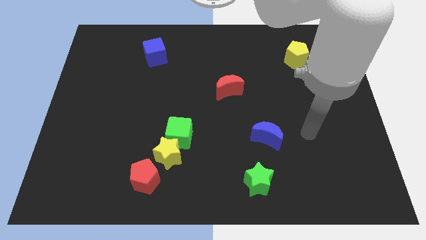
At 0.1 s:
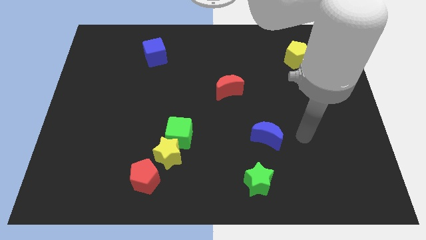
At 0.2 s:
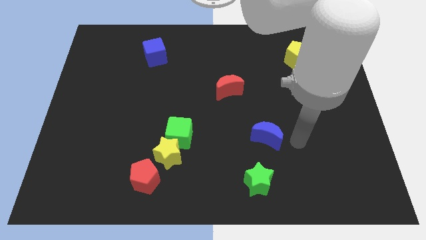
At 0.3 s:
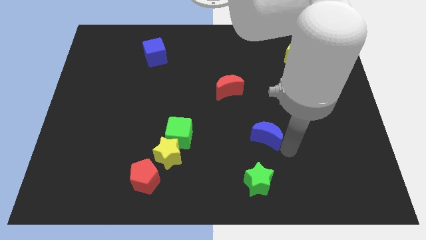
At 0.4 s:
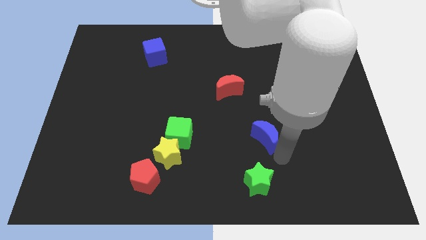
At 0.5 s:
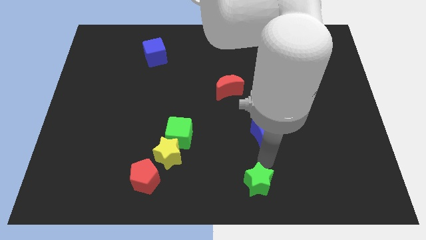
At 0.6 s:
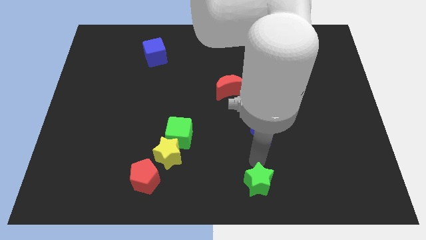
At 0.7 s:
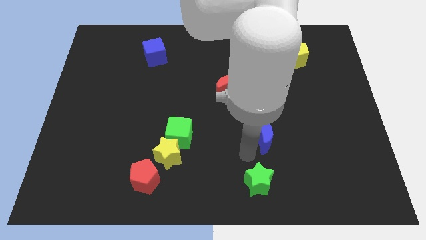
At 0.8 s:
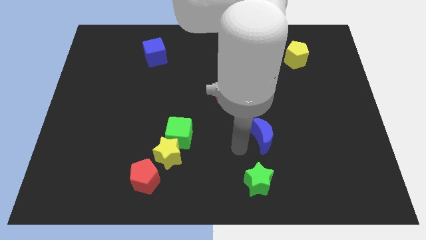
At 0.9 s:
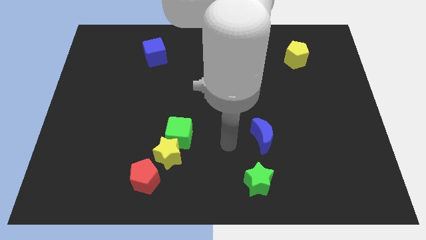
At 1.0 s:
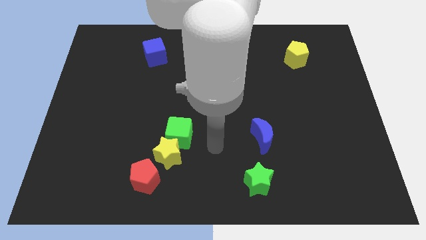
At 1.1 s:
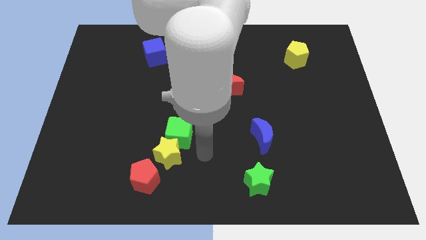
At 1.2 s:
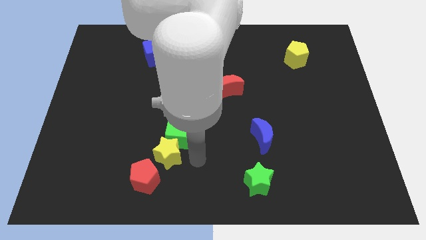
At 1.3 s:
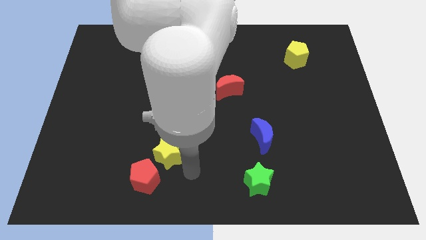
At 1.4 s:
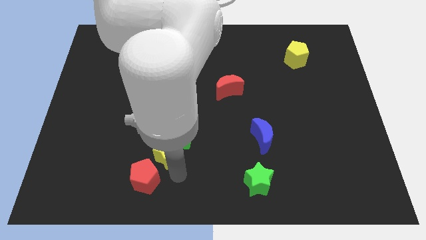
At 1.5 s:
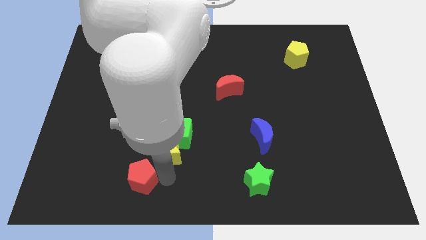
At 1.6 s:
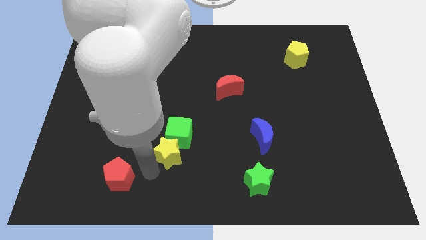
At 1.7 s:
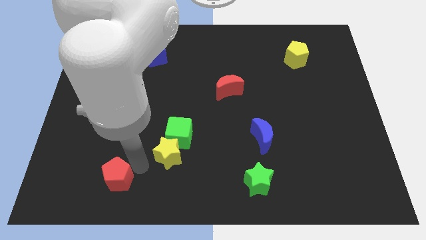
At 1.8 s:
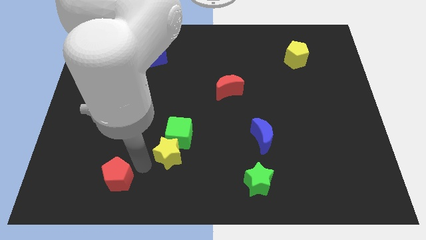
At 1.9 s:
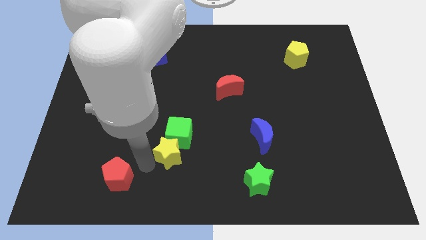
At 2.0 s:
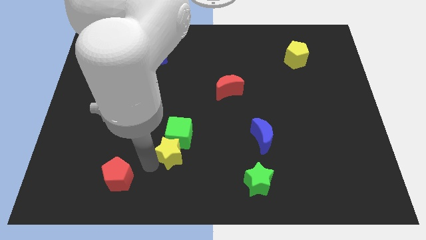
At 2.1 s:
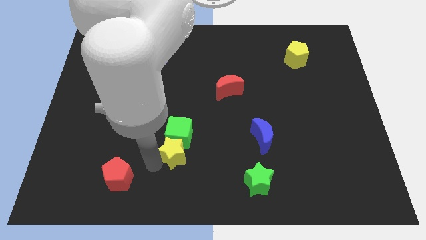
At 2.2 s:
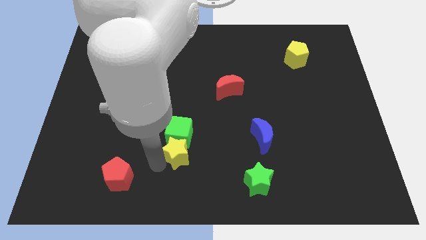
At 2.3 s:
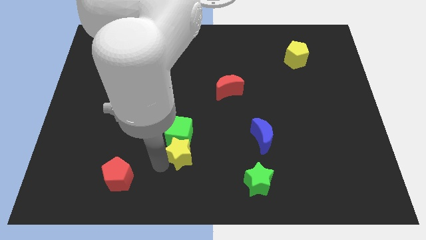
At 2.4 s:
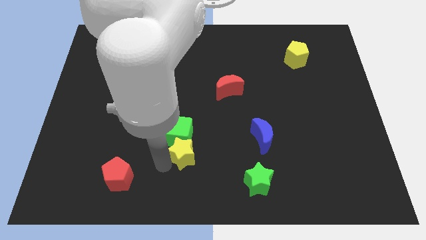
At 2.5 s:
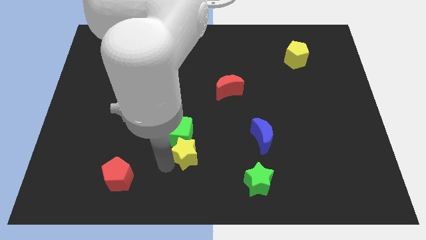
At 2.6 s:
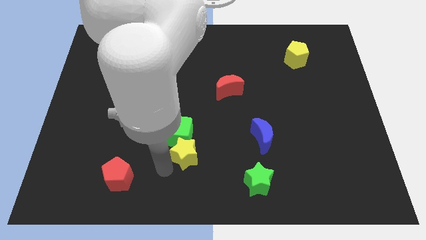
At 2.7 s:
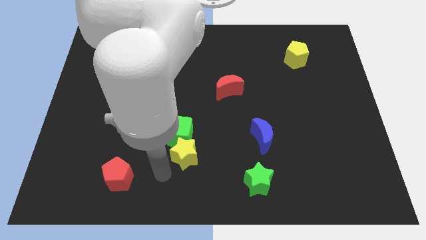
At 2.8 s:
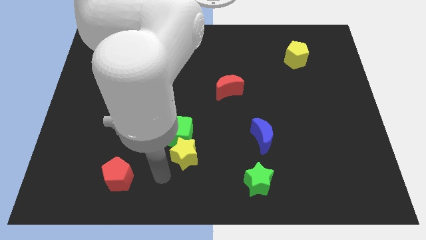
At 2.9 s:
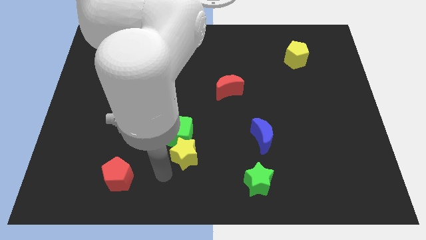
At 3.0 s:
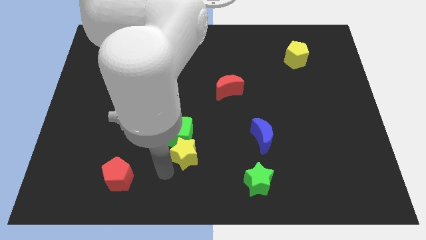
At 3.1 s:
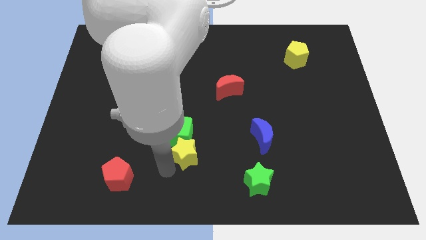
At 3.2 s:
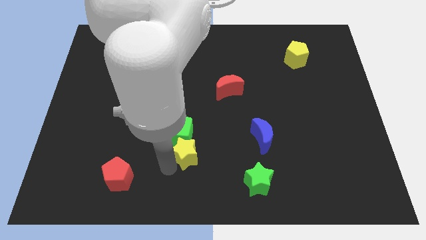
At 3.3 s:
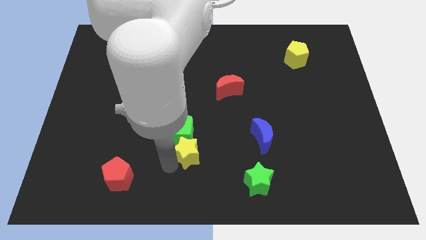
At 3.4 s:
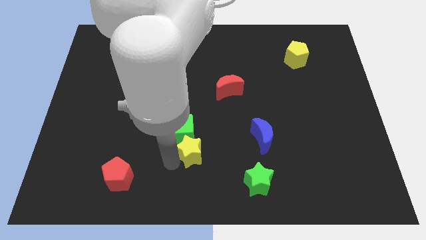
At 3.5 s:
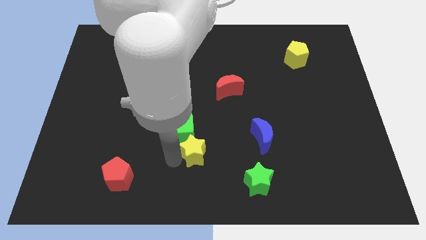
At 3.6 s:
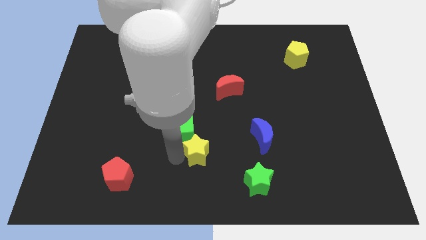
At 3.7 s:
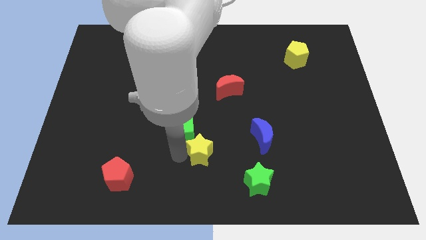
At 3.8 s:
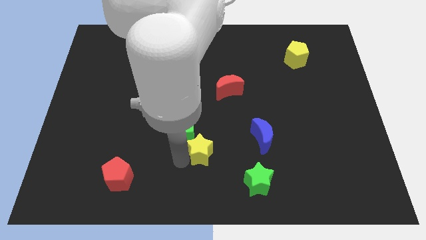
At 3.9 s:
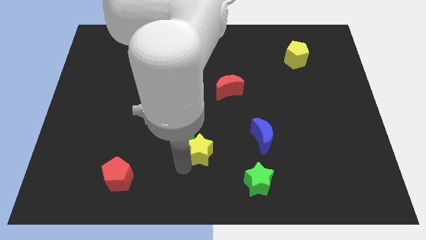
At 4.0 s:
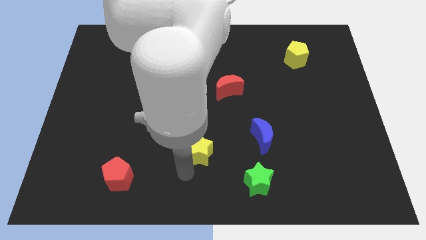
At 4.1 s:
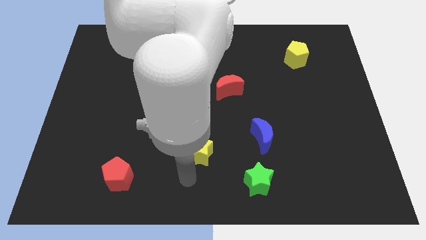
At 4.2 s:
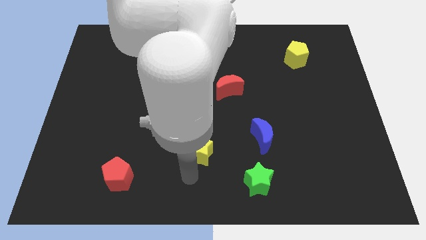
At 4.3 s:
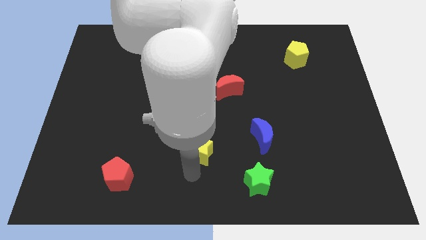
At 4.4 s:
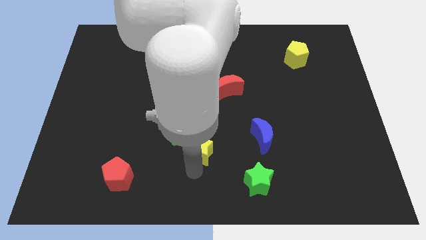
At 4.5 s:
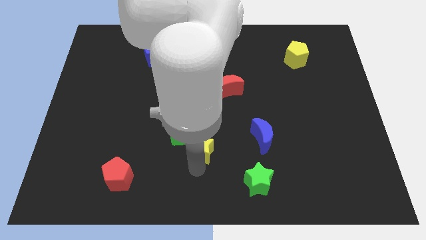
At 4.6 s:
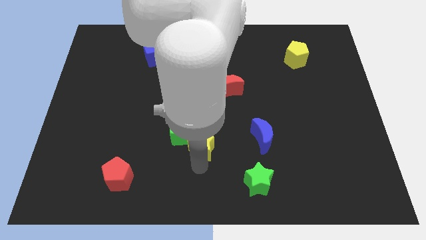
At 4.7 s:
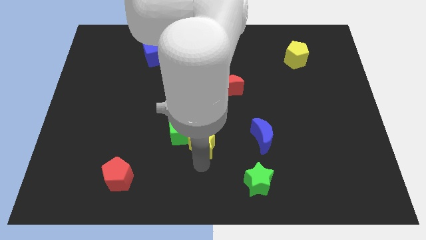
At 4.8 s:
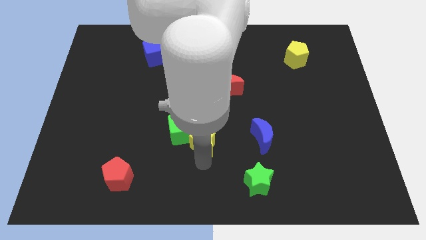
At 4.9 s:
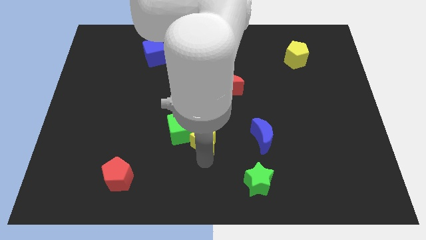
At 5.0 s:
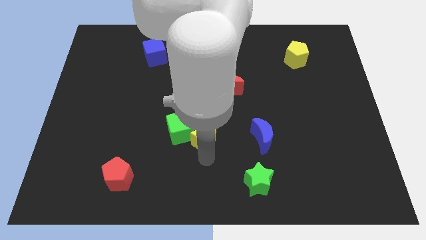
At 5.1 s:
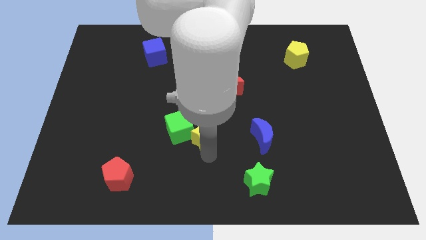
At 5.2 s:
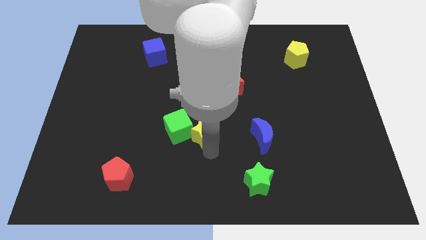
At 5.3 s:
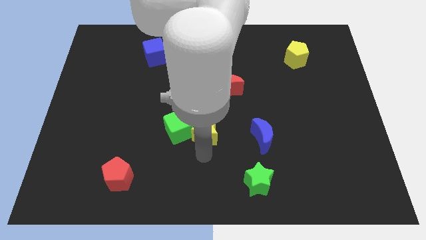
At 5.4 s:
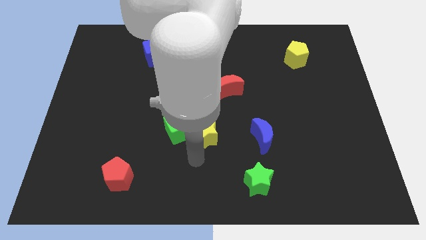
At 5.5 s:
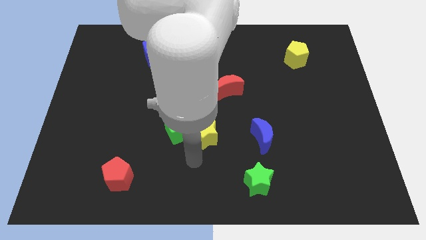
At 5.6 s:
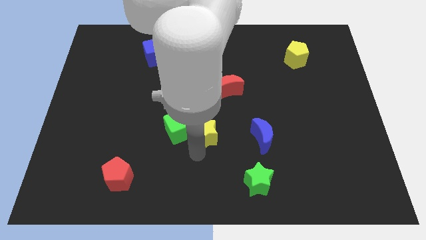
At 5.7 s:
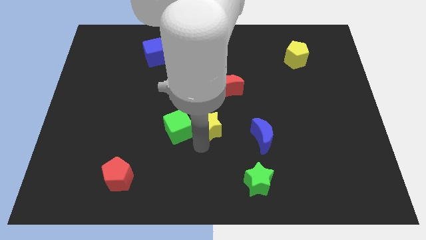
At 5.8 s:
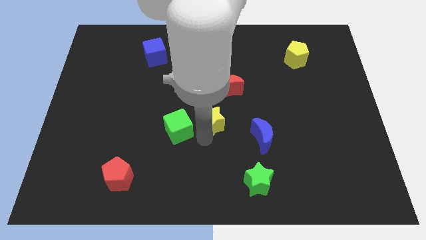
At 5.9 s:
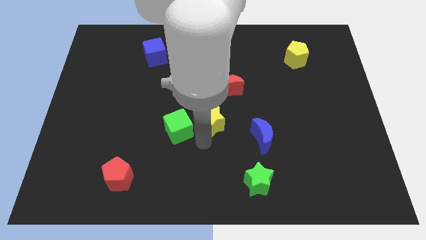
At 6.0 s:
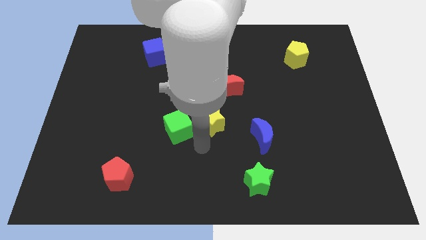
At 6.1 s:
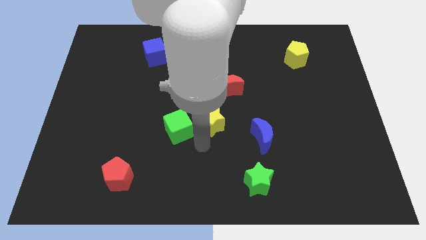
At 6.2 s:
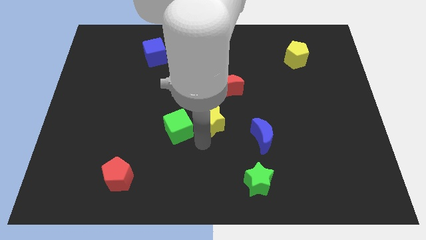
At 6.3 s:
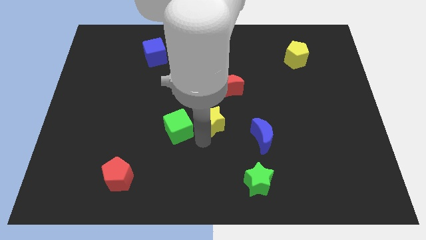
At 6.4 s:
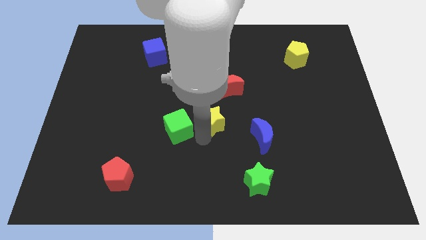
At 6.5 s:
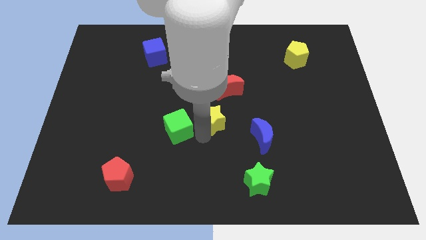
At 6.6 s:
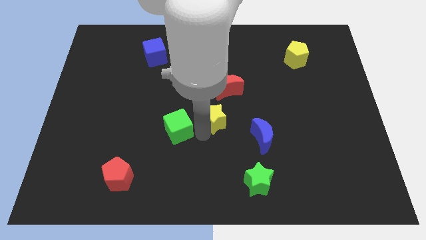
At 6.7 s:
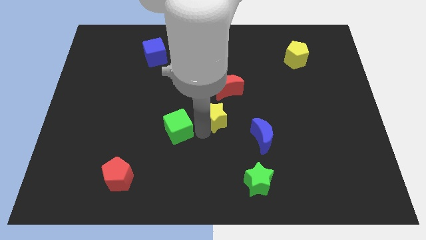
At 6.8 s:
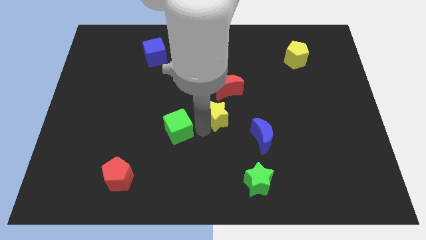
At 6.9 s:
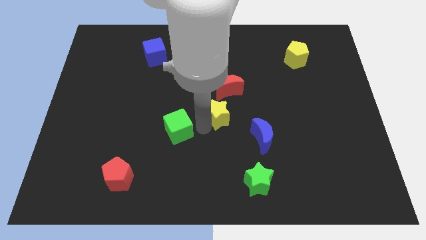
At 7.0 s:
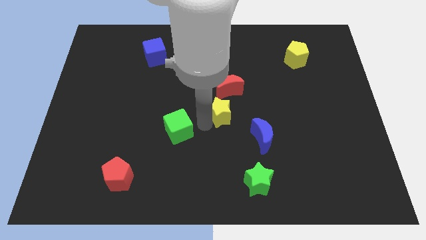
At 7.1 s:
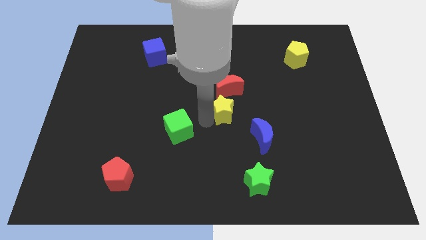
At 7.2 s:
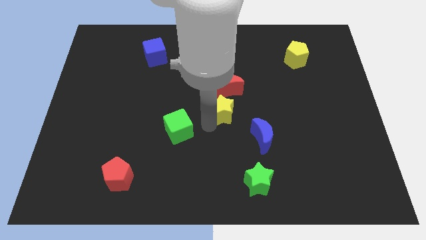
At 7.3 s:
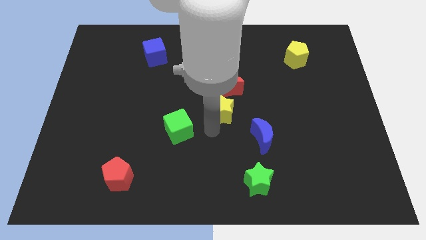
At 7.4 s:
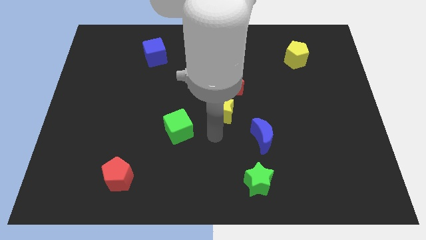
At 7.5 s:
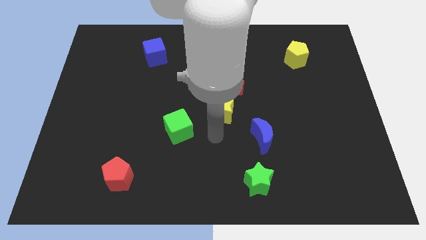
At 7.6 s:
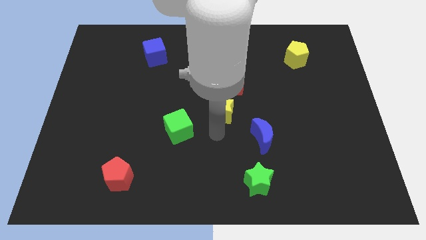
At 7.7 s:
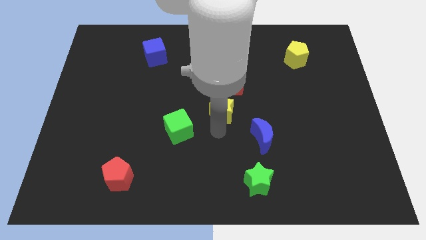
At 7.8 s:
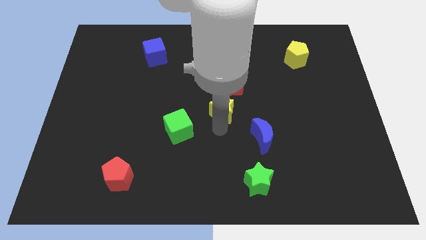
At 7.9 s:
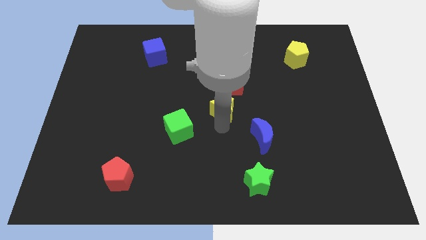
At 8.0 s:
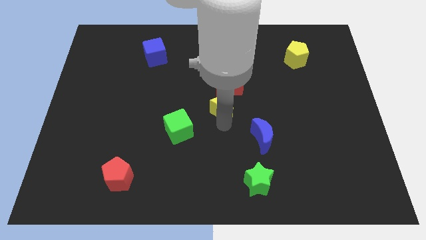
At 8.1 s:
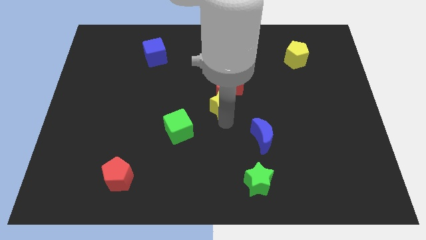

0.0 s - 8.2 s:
put the yellow star close to the red moon
